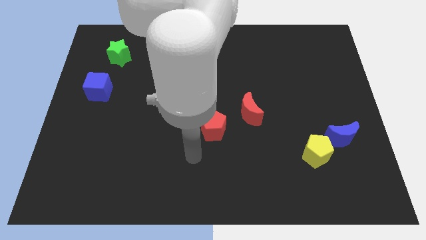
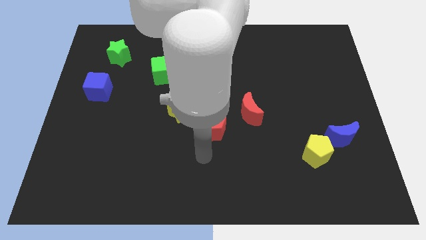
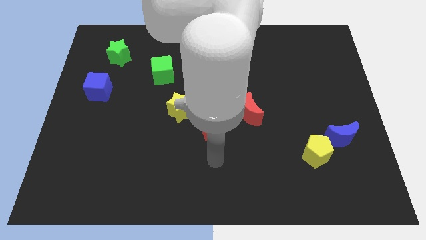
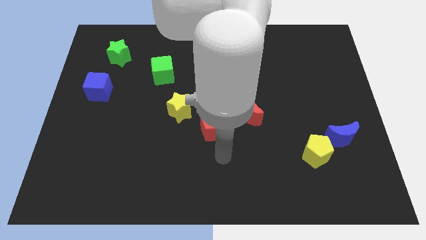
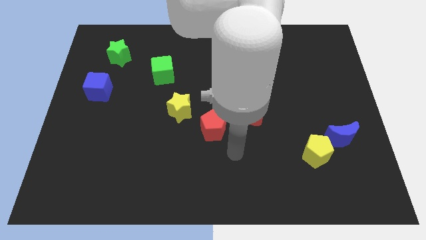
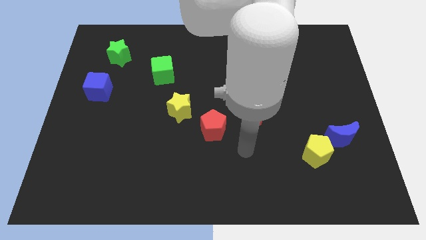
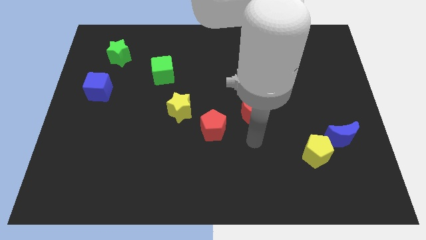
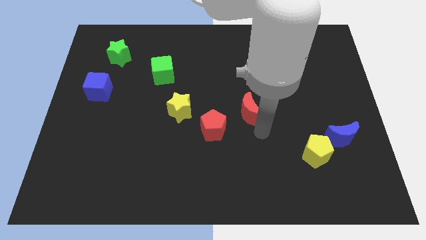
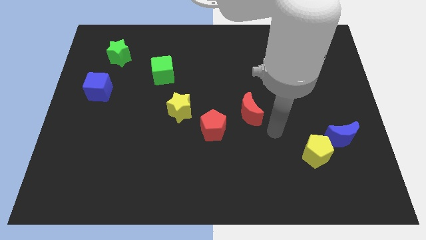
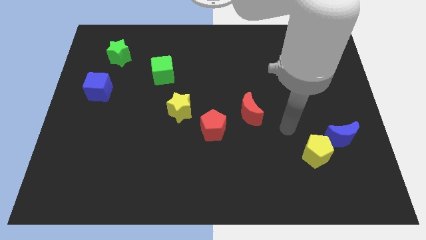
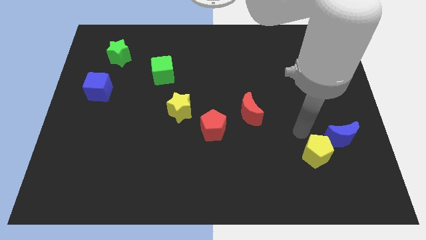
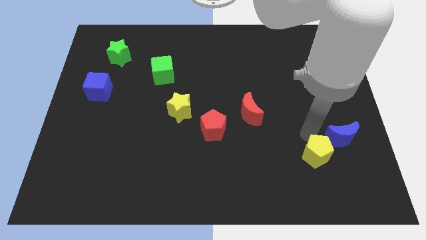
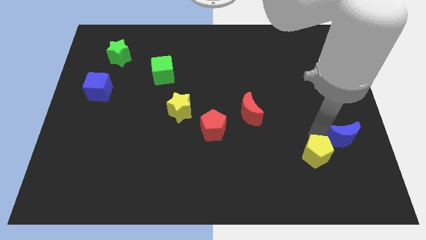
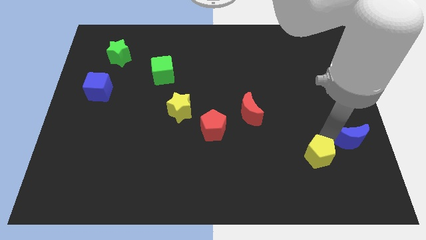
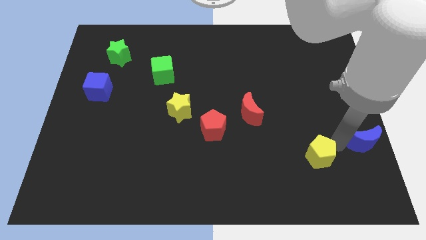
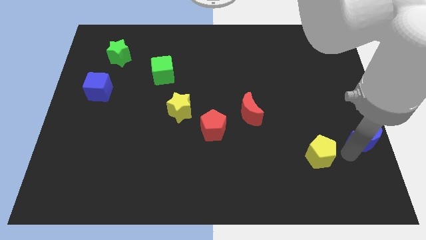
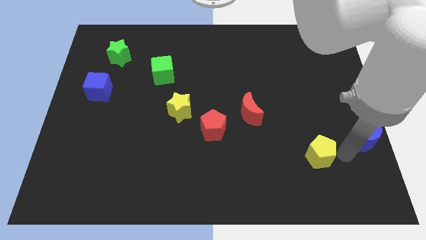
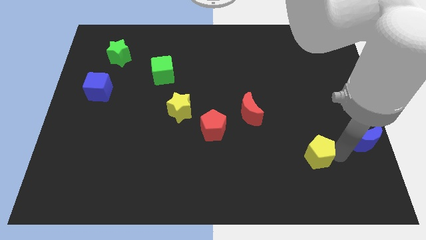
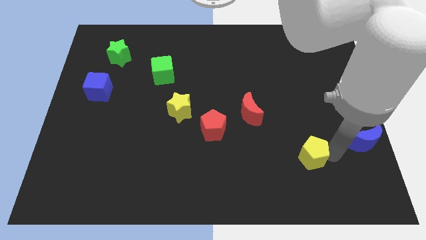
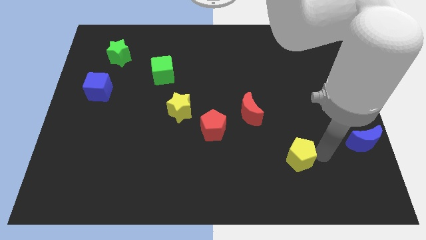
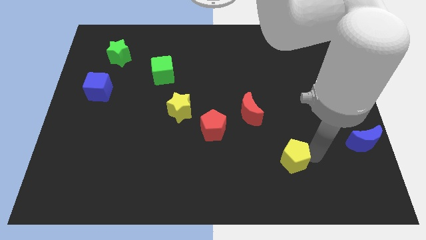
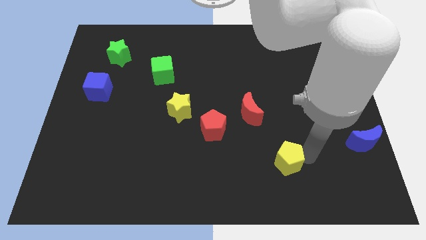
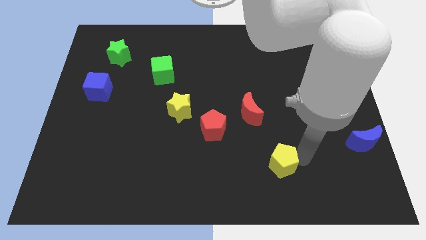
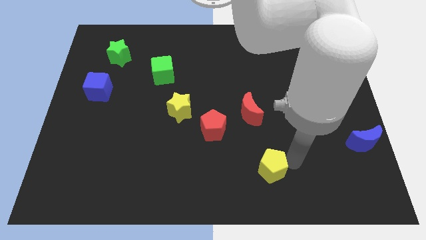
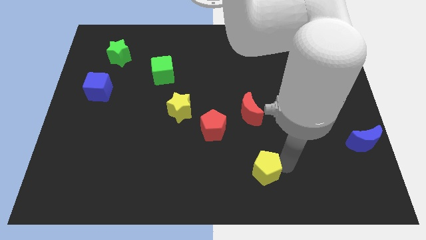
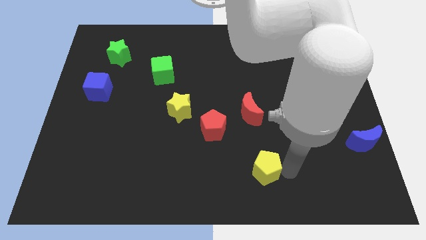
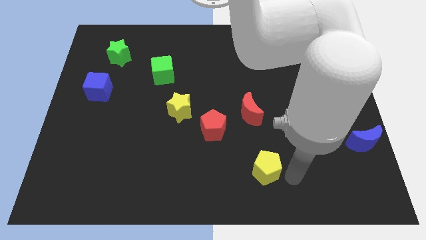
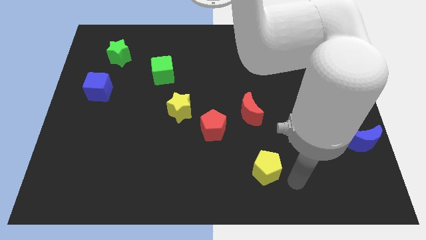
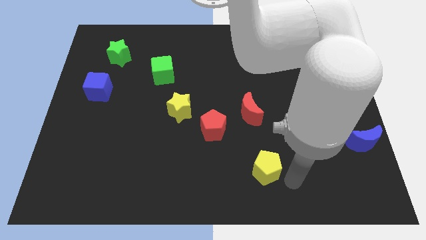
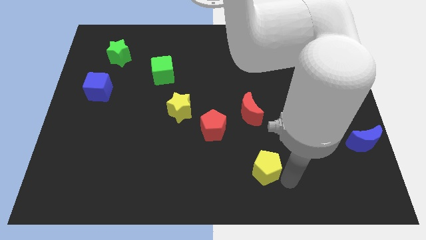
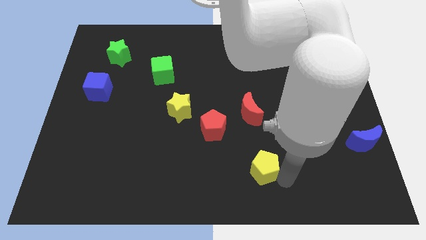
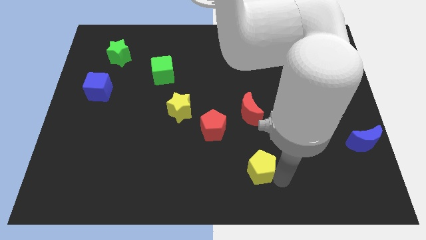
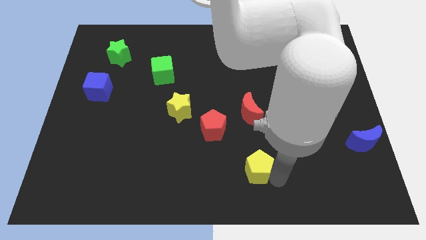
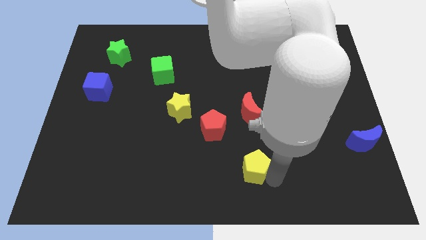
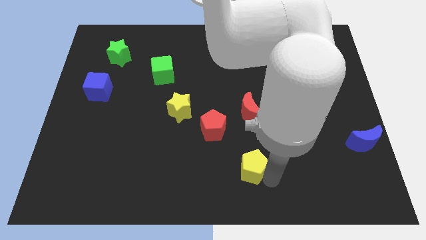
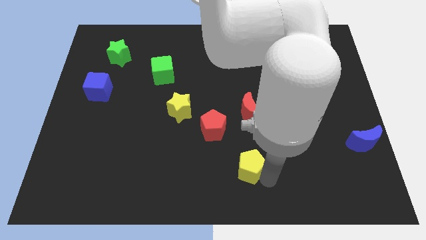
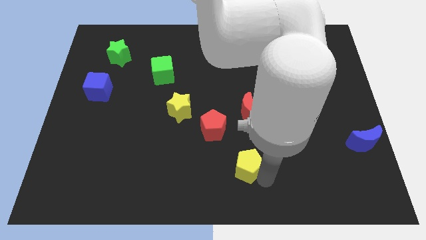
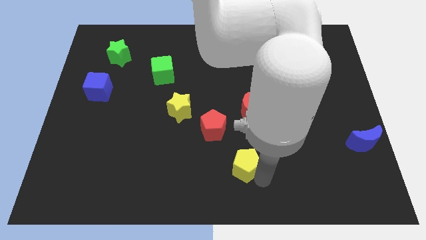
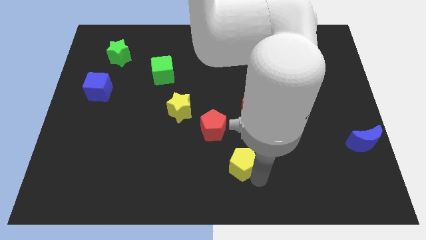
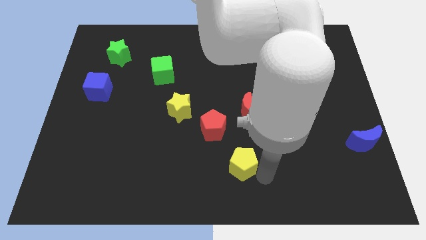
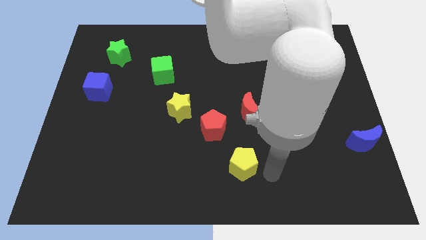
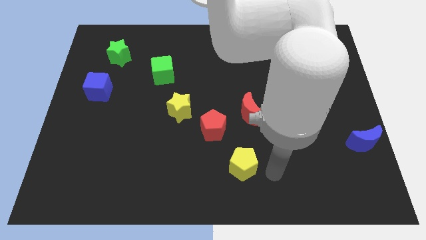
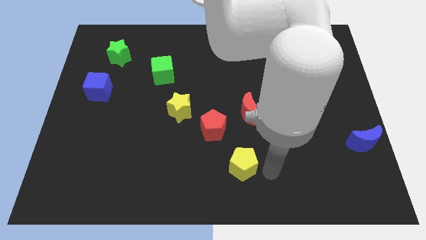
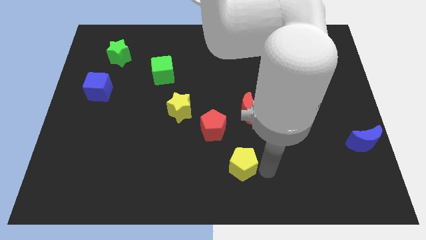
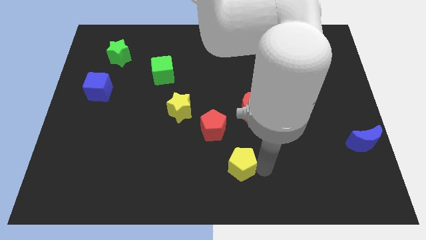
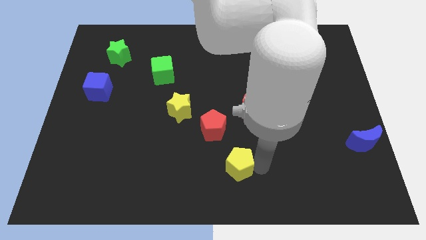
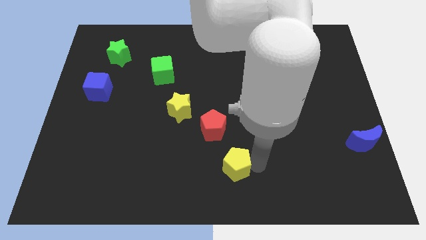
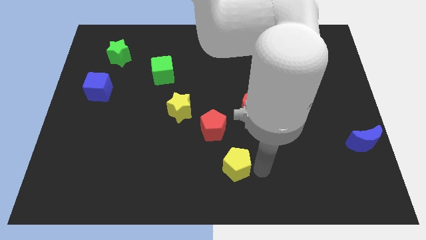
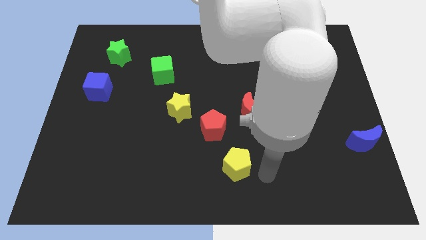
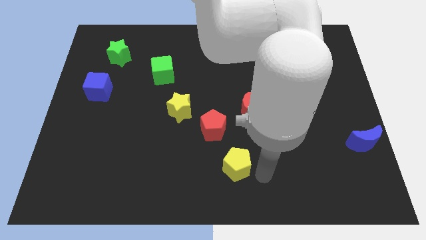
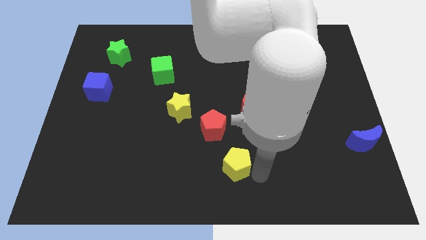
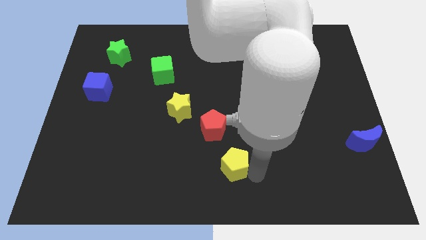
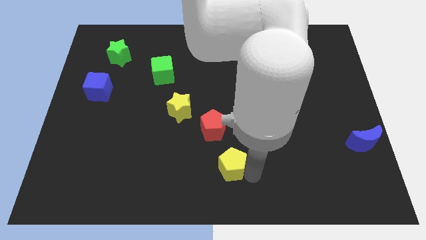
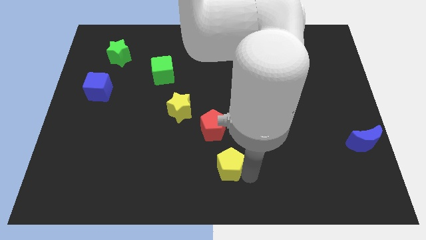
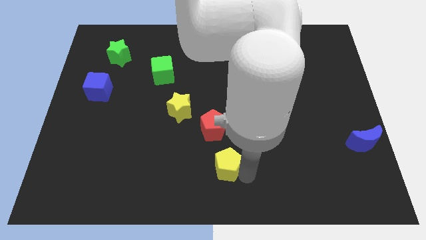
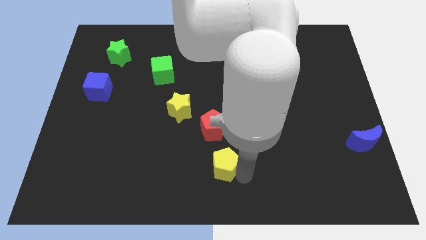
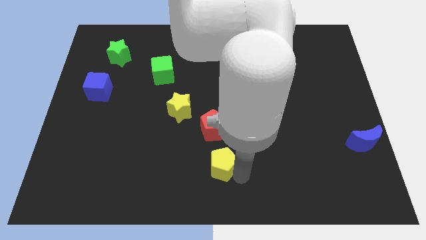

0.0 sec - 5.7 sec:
slide the yellow pentagon left

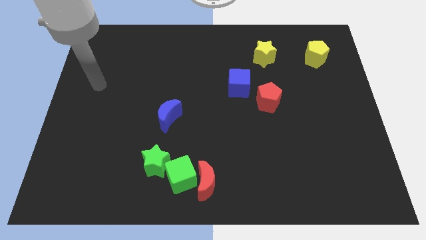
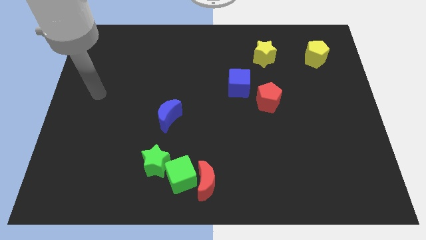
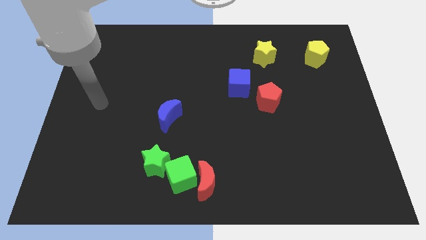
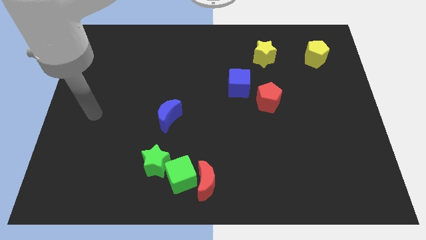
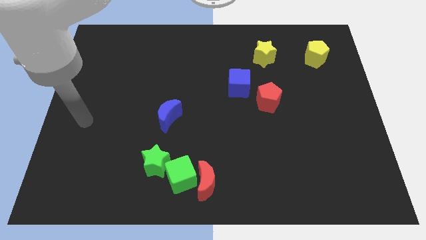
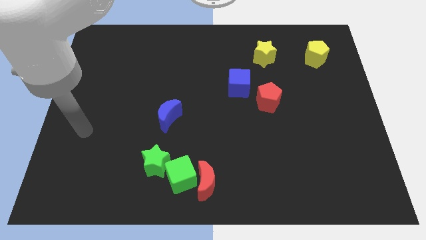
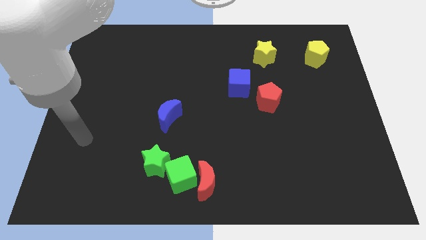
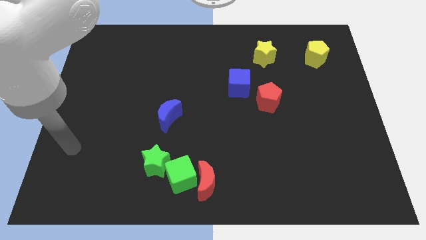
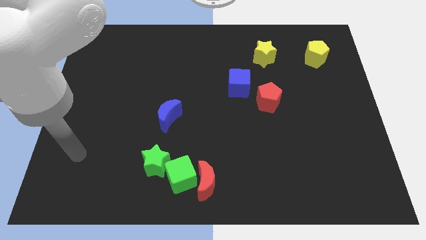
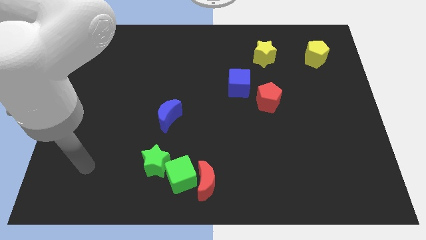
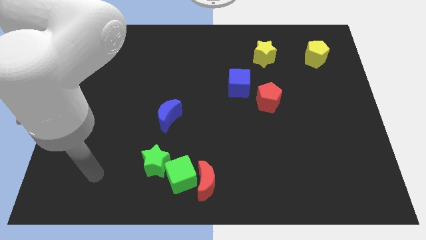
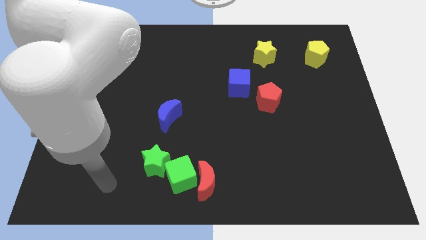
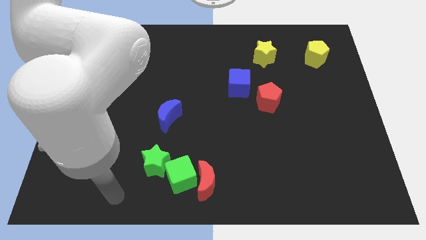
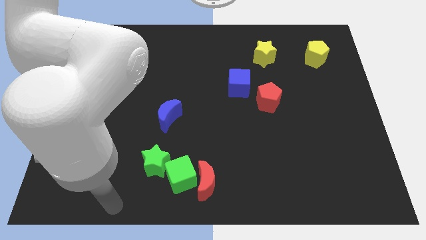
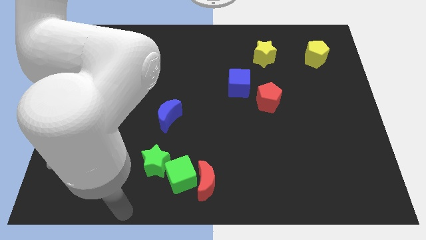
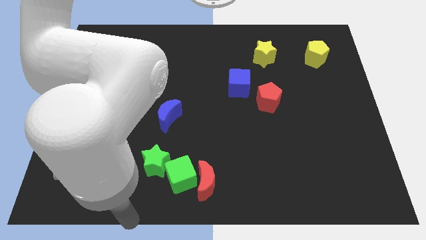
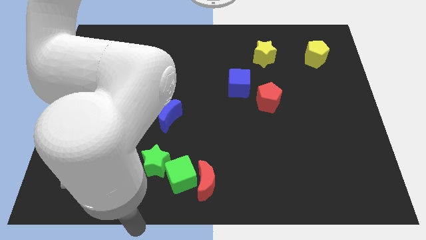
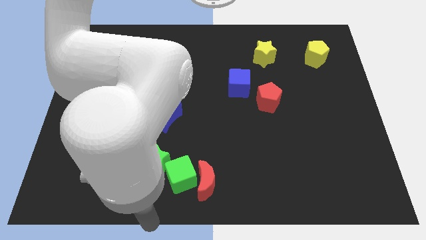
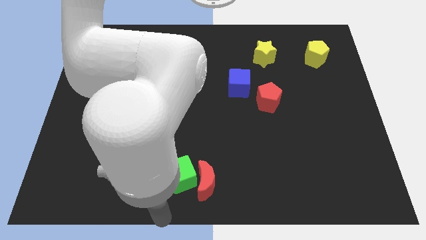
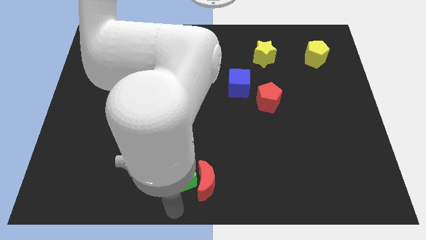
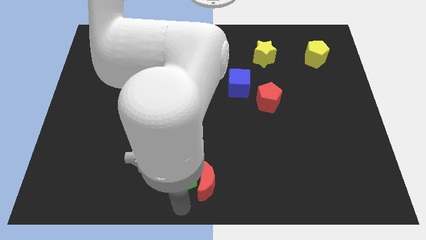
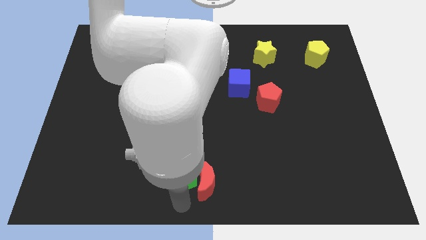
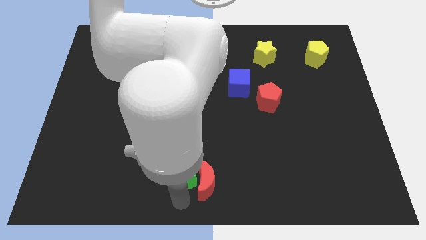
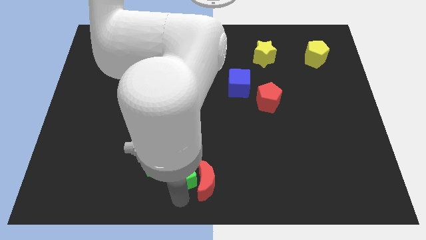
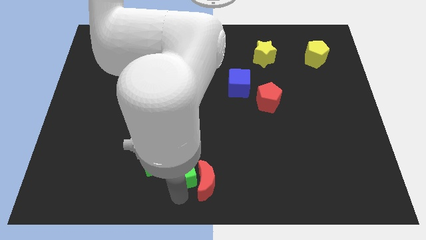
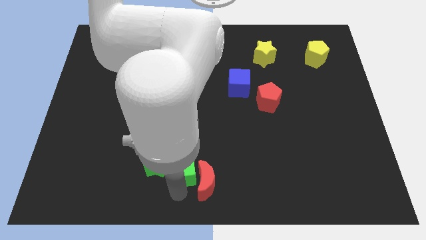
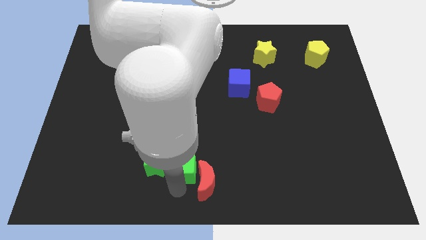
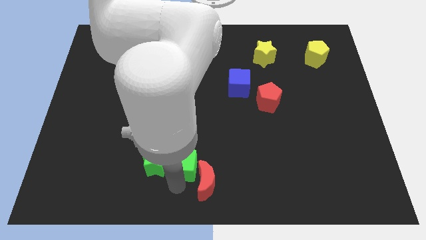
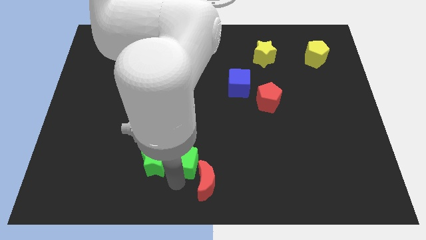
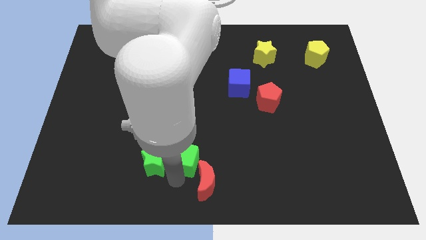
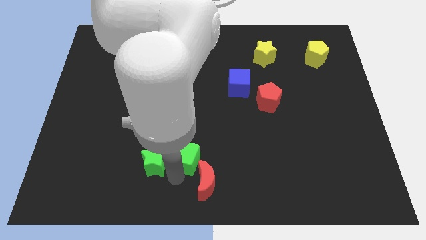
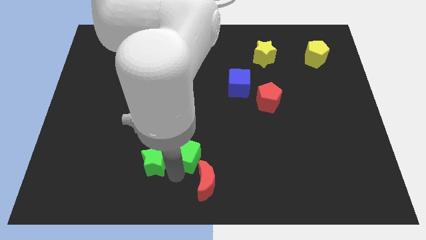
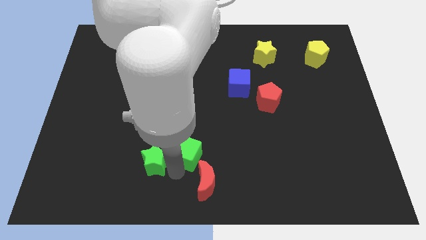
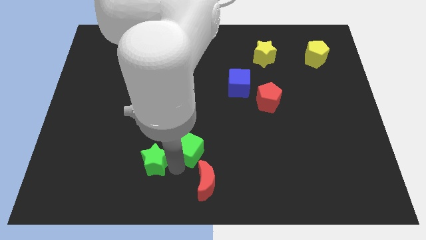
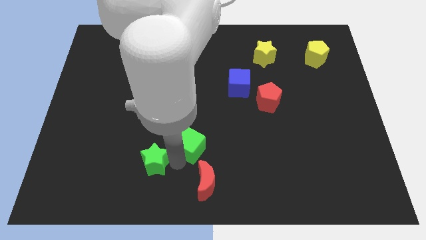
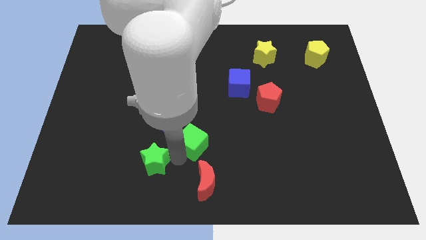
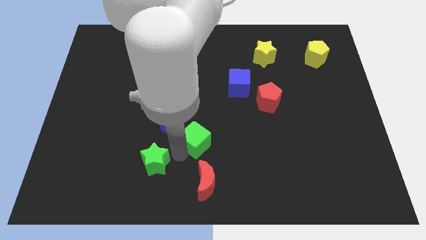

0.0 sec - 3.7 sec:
push the green cube a little diagonally up and to the right
